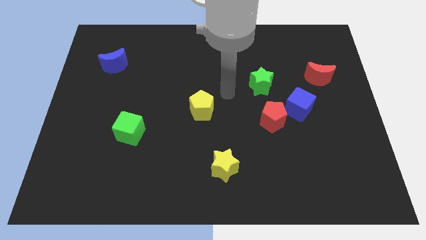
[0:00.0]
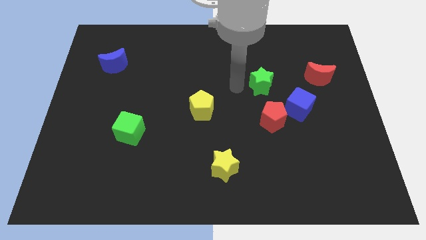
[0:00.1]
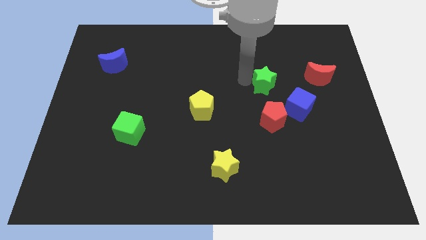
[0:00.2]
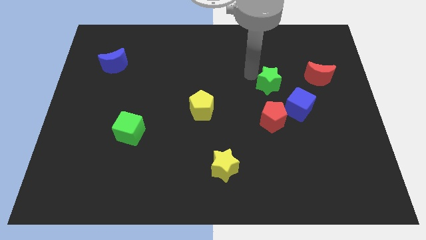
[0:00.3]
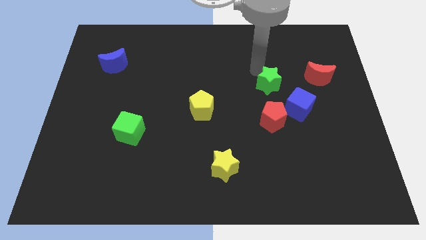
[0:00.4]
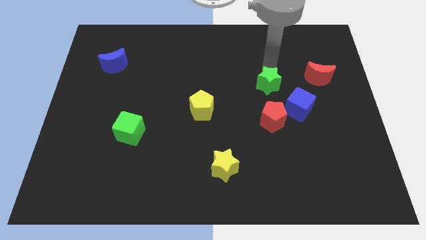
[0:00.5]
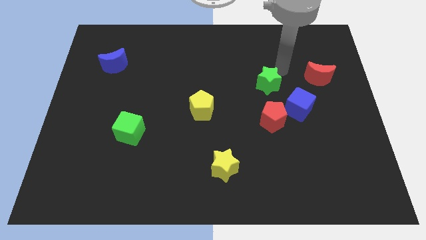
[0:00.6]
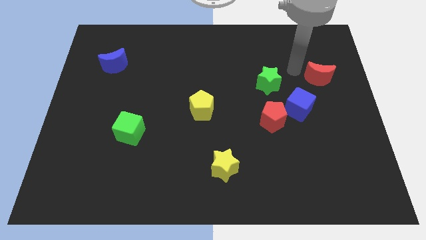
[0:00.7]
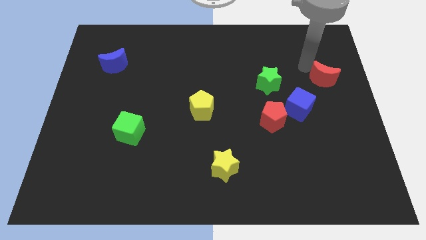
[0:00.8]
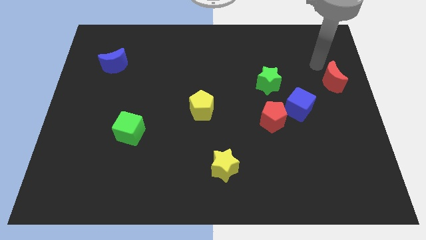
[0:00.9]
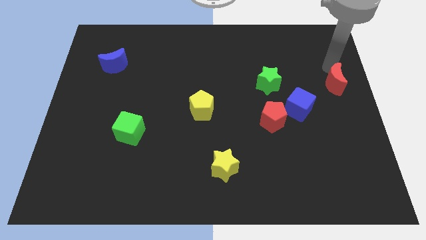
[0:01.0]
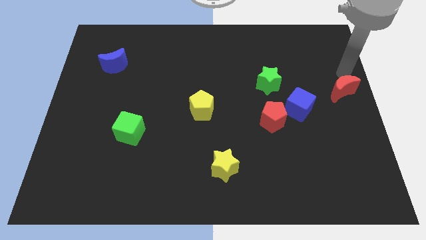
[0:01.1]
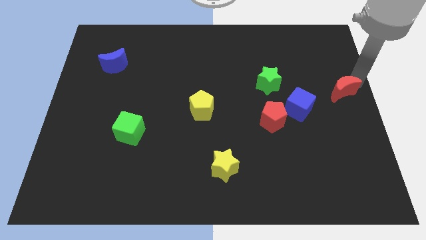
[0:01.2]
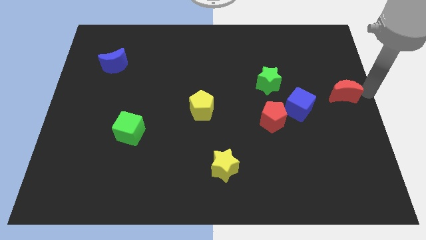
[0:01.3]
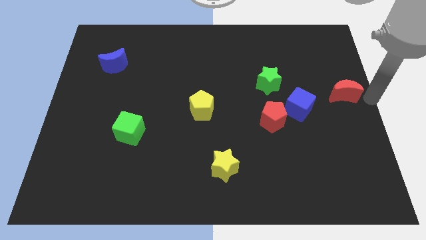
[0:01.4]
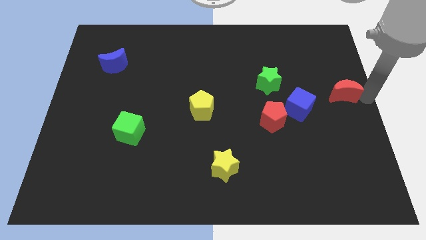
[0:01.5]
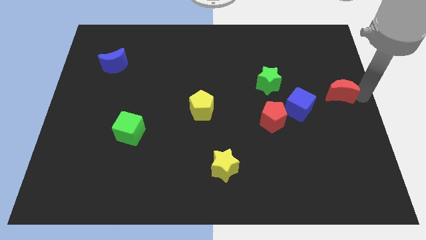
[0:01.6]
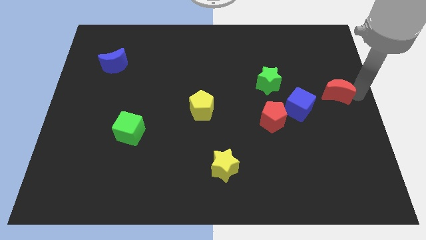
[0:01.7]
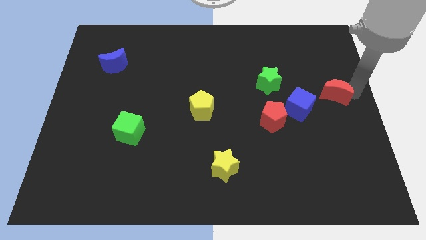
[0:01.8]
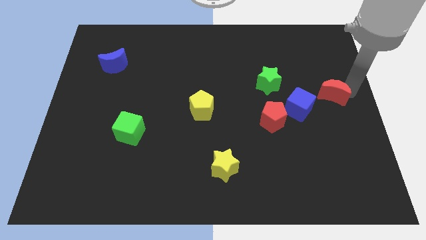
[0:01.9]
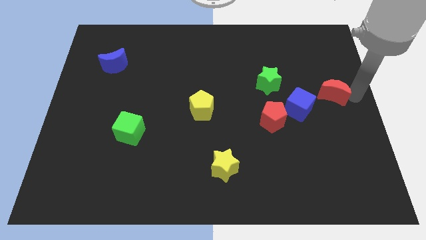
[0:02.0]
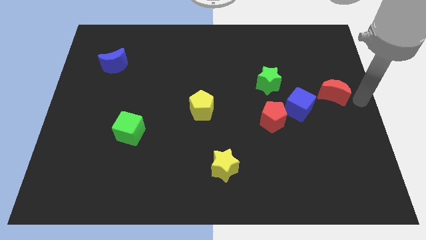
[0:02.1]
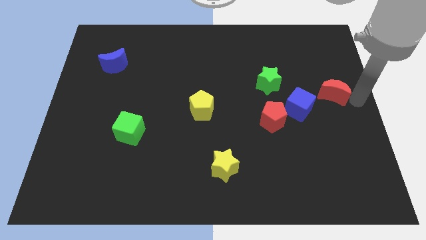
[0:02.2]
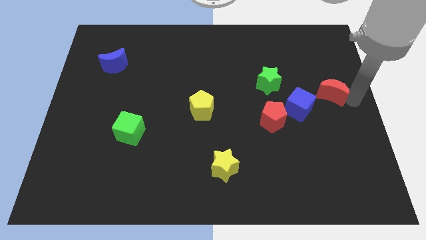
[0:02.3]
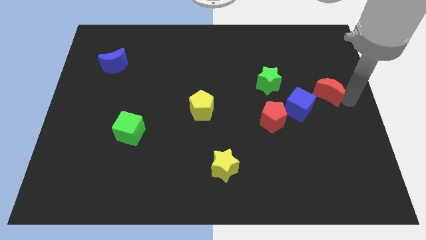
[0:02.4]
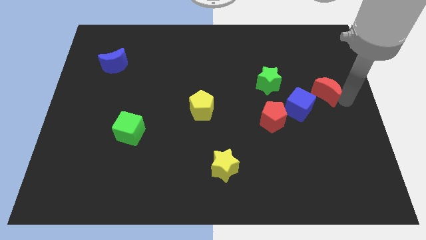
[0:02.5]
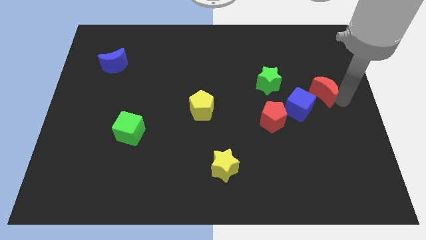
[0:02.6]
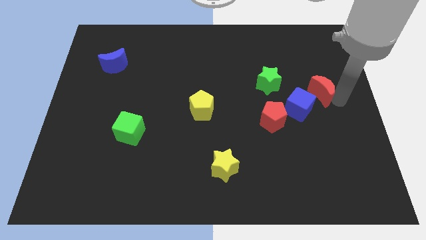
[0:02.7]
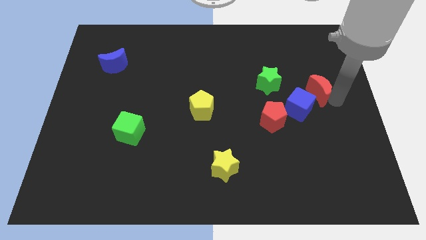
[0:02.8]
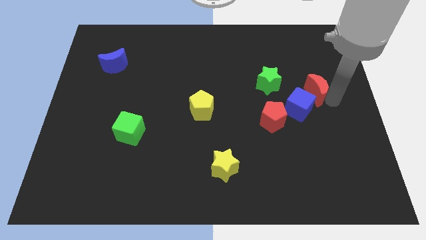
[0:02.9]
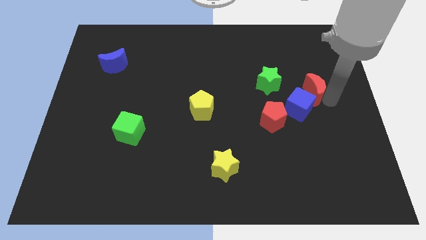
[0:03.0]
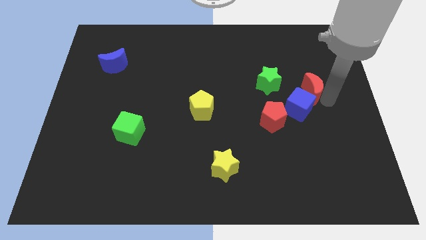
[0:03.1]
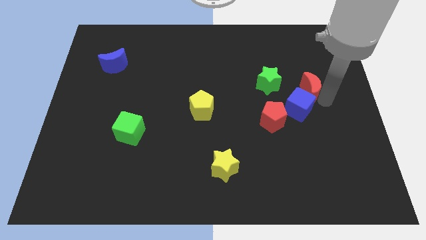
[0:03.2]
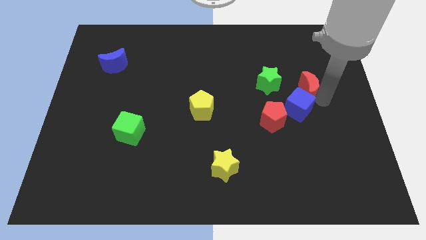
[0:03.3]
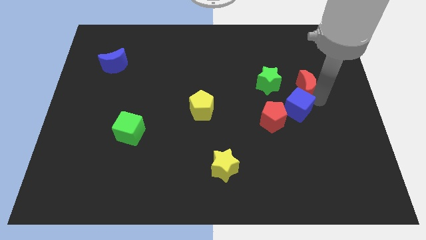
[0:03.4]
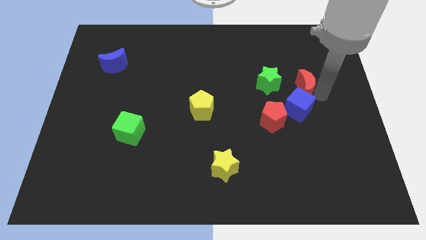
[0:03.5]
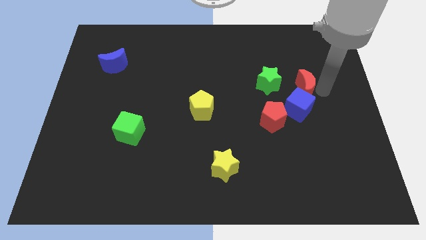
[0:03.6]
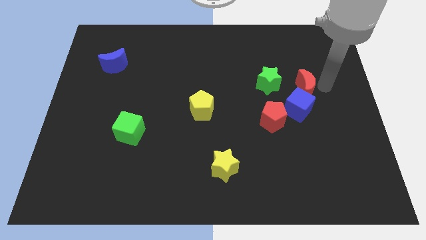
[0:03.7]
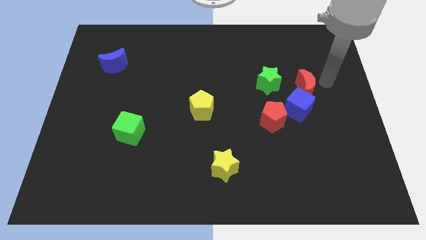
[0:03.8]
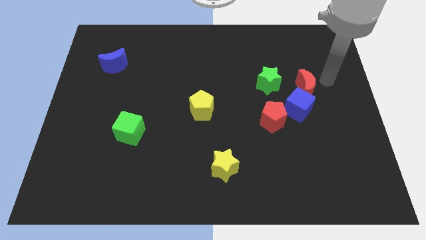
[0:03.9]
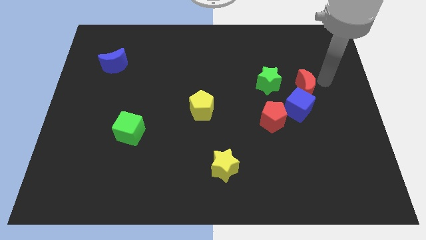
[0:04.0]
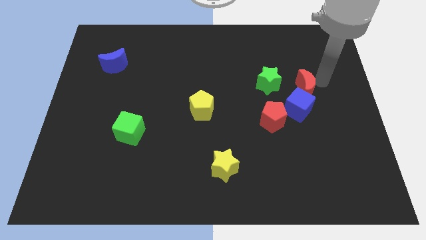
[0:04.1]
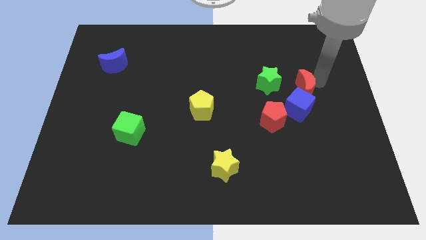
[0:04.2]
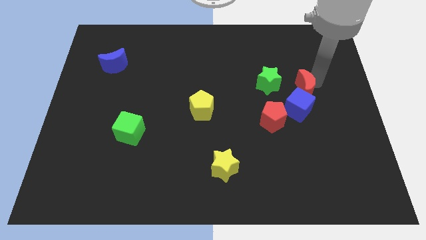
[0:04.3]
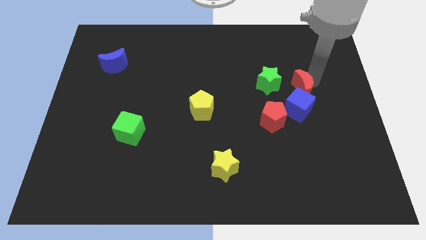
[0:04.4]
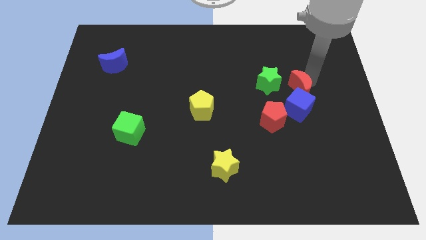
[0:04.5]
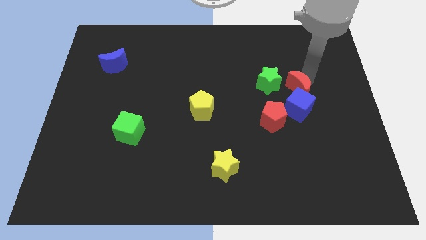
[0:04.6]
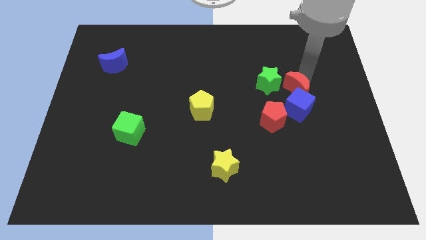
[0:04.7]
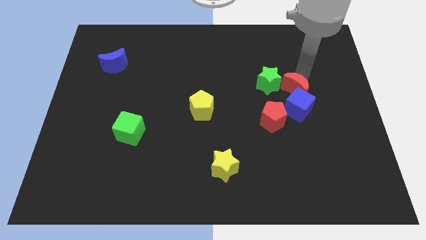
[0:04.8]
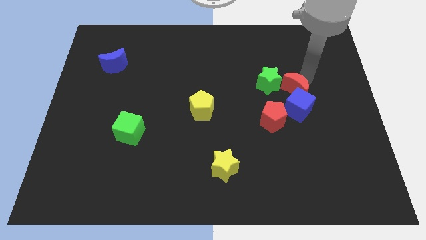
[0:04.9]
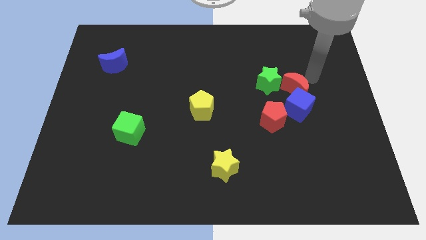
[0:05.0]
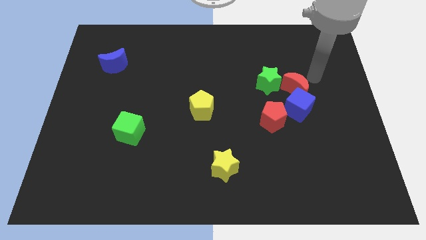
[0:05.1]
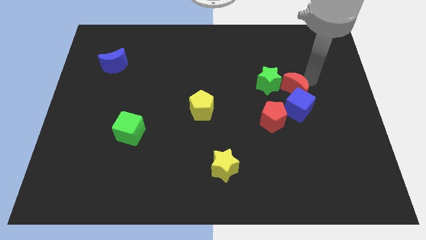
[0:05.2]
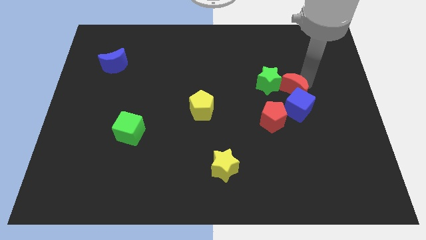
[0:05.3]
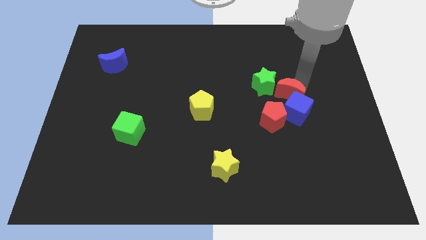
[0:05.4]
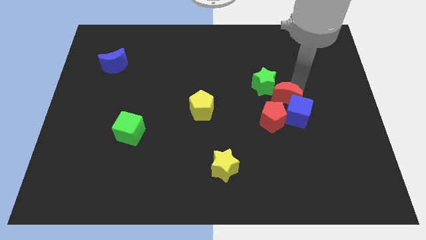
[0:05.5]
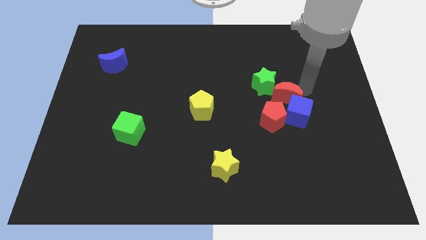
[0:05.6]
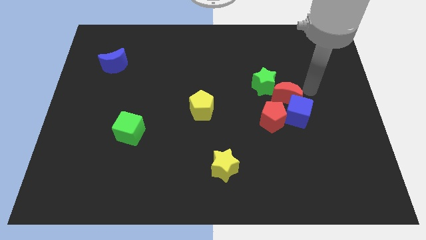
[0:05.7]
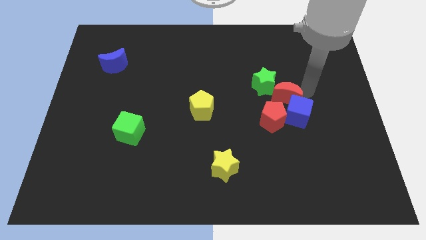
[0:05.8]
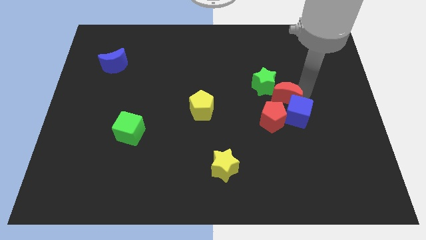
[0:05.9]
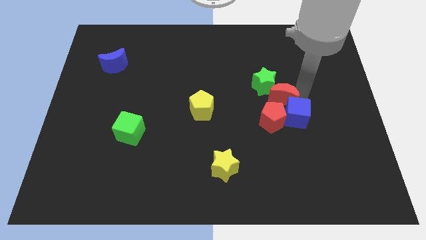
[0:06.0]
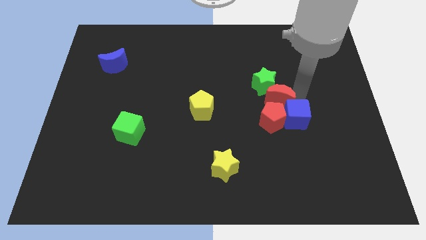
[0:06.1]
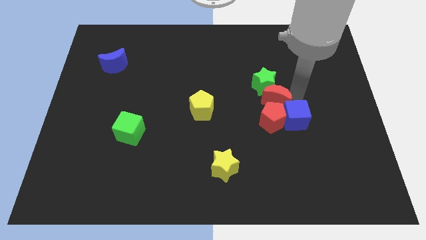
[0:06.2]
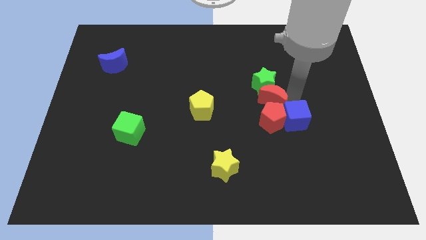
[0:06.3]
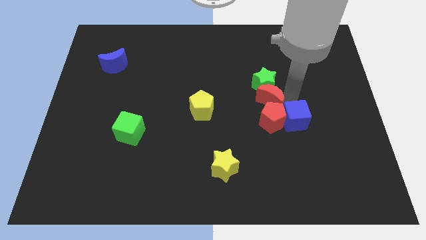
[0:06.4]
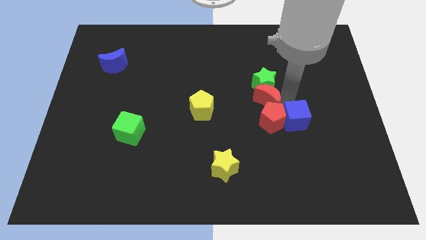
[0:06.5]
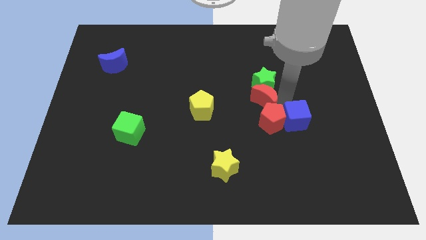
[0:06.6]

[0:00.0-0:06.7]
slide the red moon to the right side of the yellow pentagon
